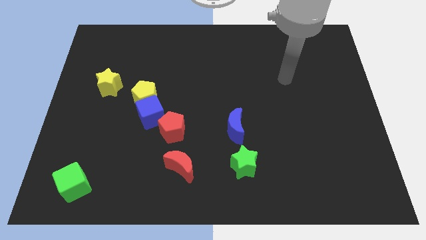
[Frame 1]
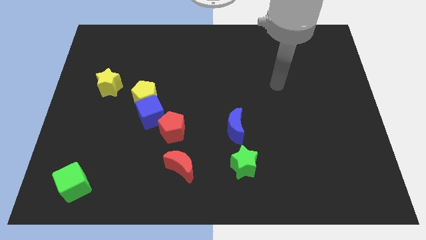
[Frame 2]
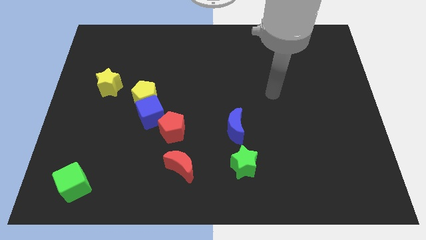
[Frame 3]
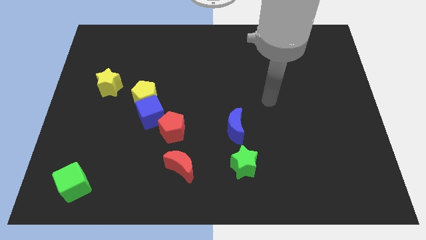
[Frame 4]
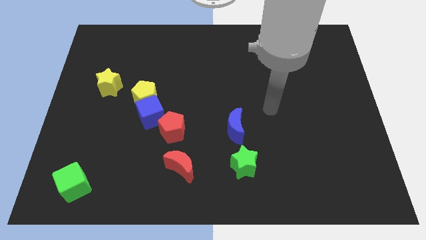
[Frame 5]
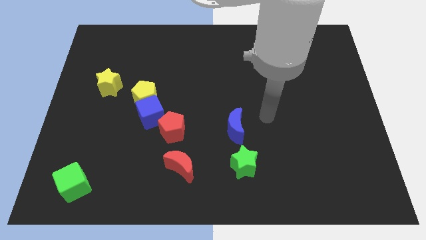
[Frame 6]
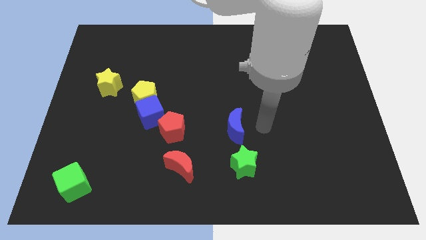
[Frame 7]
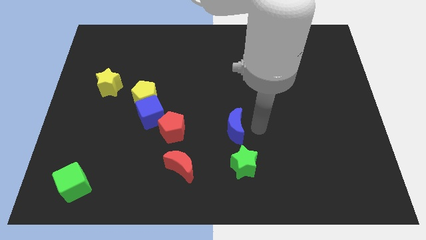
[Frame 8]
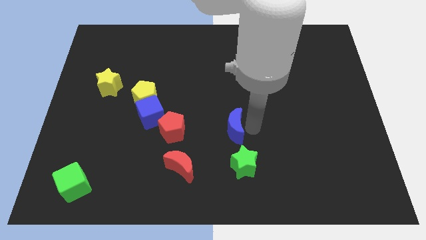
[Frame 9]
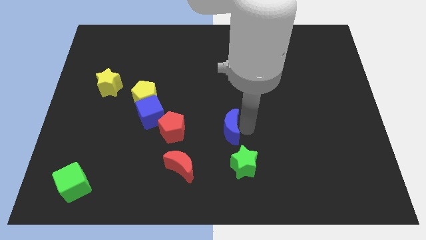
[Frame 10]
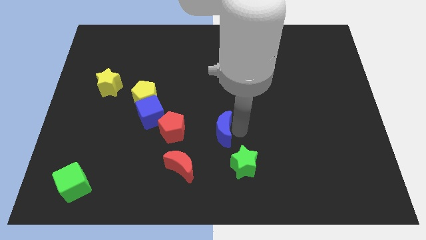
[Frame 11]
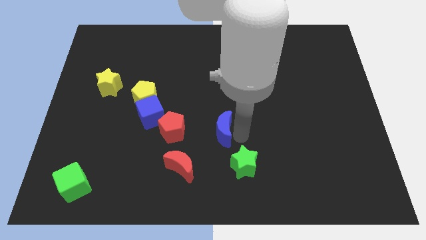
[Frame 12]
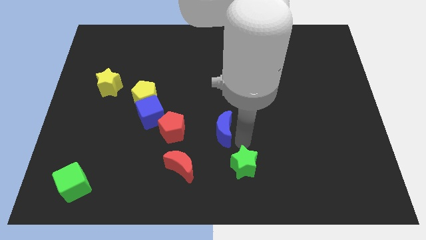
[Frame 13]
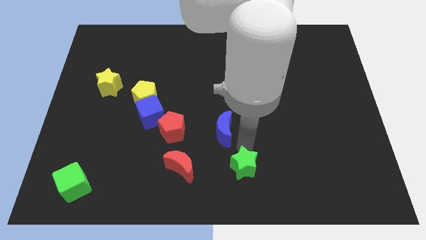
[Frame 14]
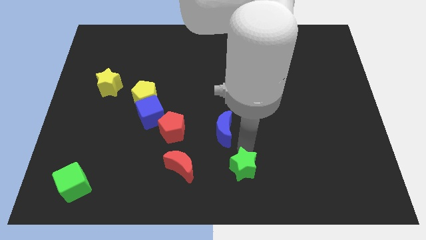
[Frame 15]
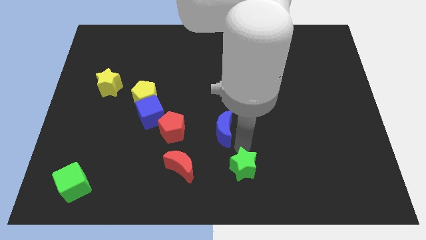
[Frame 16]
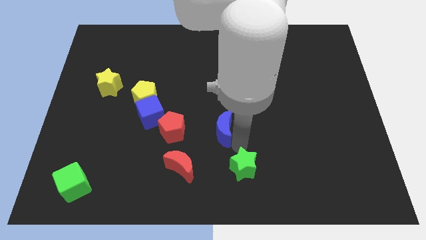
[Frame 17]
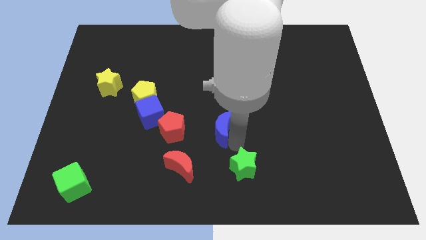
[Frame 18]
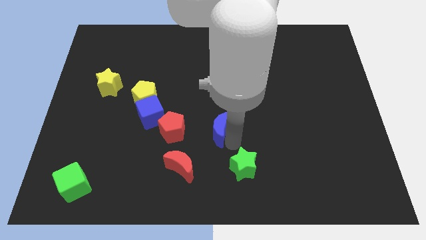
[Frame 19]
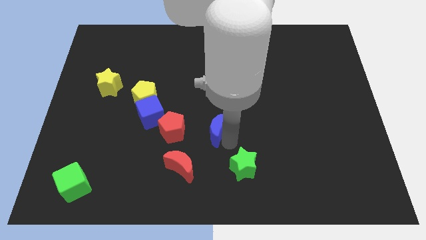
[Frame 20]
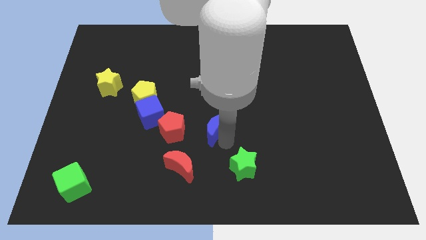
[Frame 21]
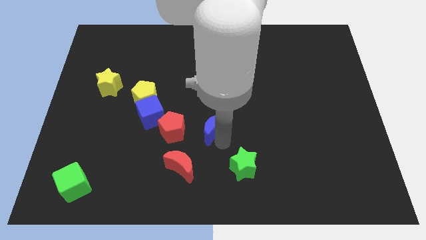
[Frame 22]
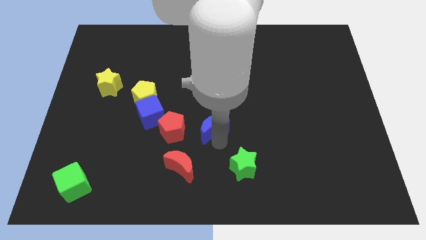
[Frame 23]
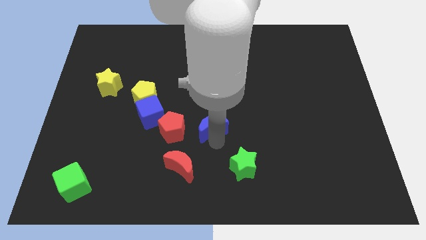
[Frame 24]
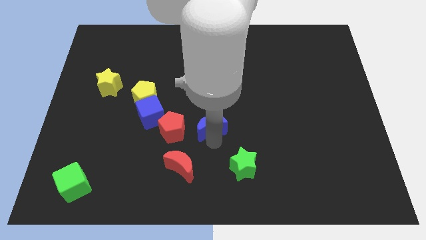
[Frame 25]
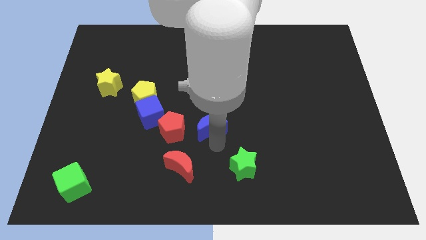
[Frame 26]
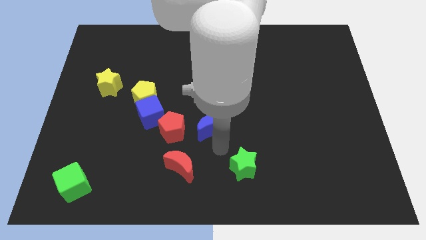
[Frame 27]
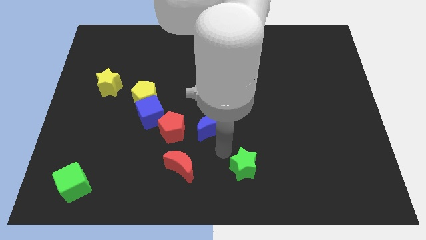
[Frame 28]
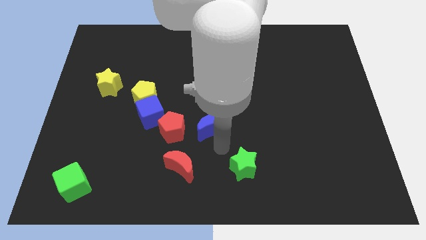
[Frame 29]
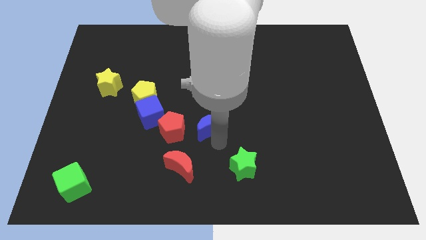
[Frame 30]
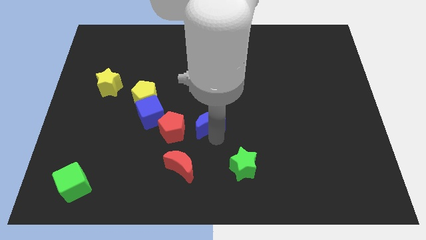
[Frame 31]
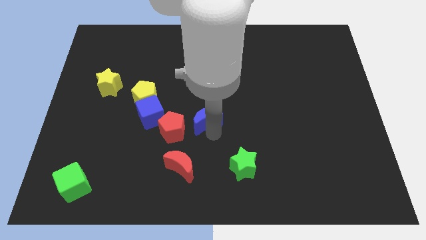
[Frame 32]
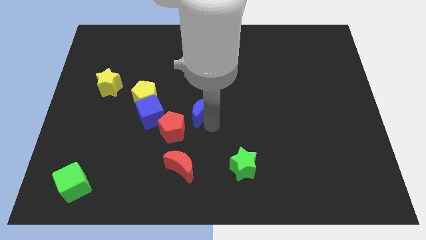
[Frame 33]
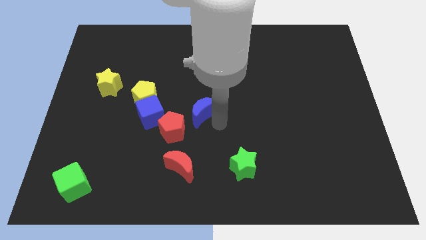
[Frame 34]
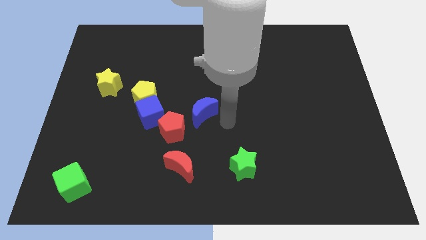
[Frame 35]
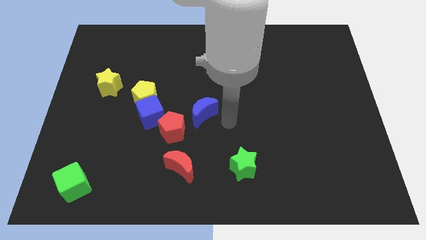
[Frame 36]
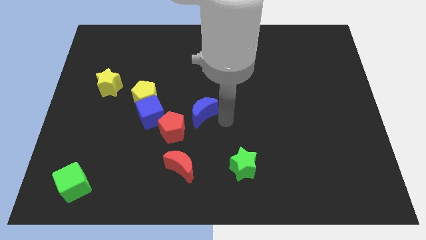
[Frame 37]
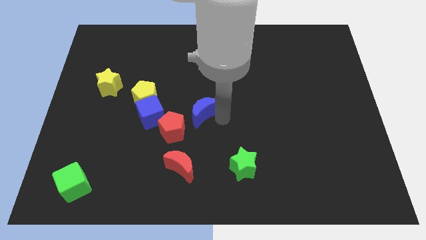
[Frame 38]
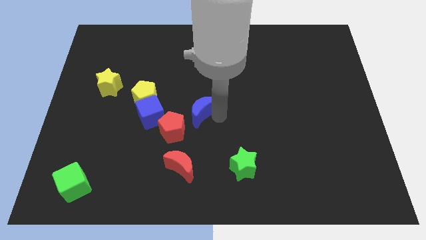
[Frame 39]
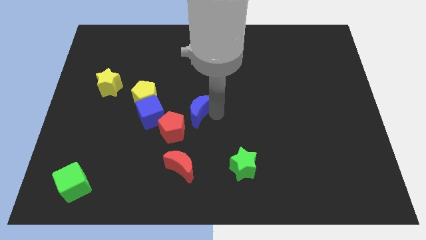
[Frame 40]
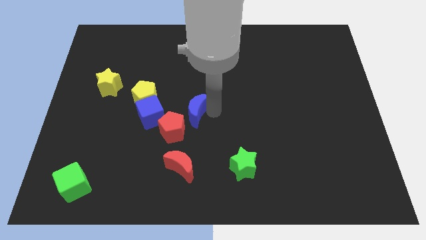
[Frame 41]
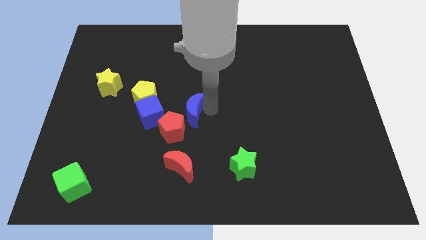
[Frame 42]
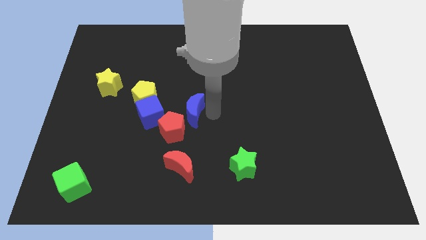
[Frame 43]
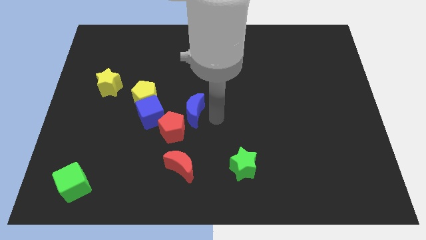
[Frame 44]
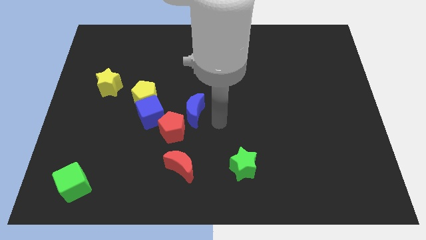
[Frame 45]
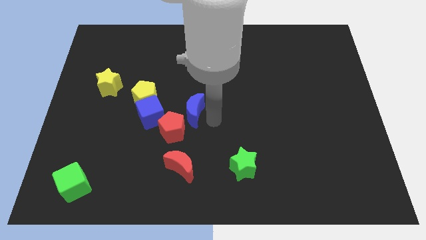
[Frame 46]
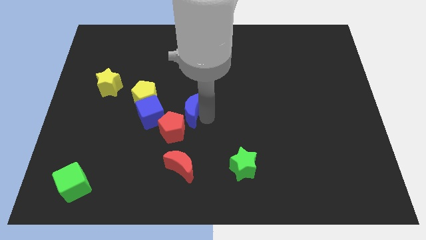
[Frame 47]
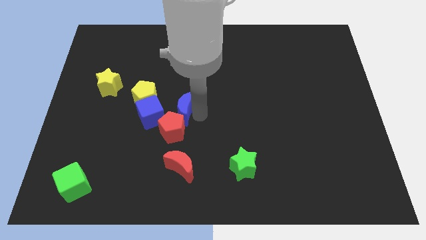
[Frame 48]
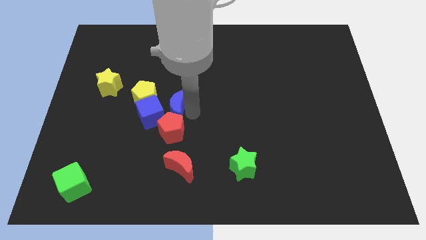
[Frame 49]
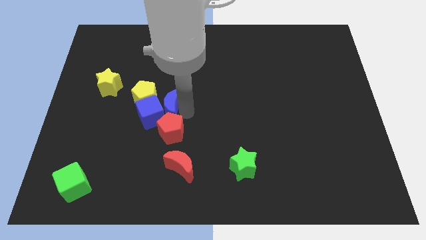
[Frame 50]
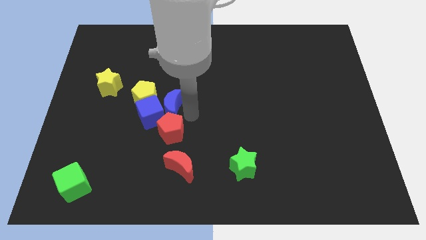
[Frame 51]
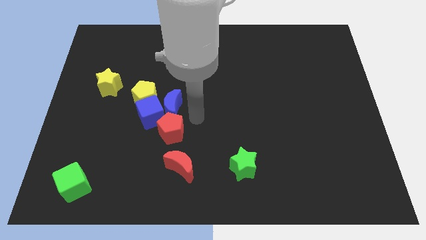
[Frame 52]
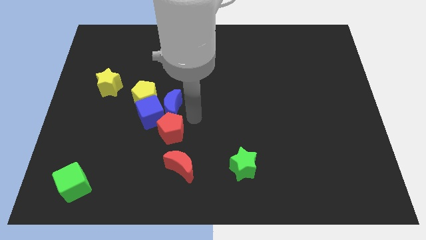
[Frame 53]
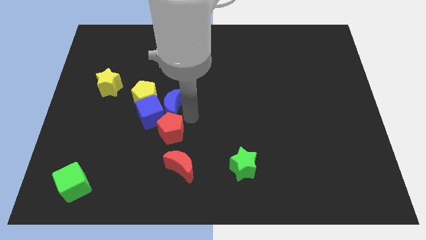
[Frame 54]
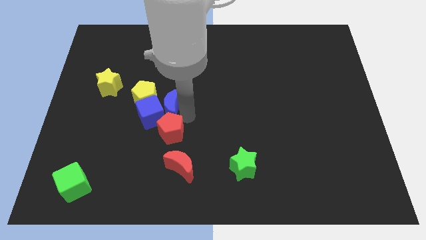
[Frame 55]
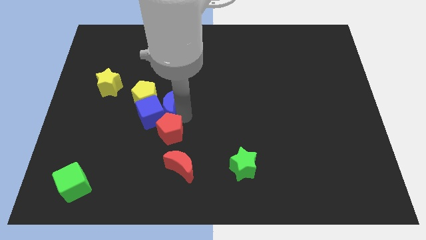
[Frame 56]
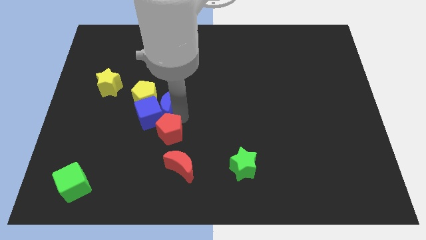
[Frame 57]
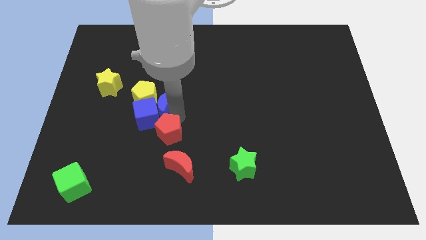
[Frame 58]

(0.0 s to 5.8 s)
push the blue moon next to the yellow pentagon
